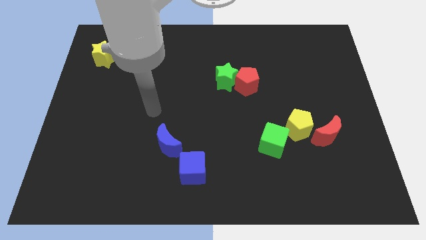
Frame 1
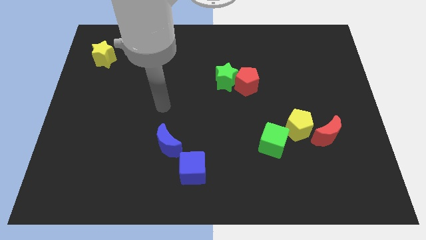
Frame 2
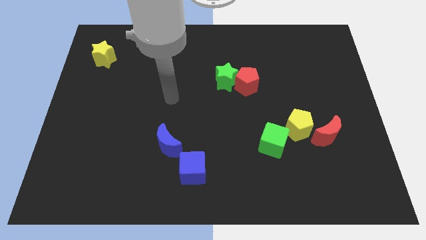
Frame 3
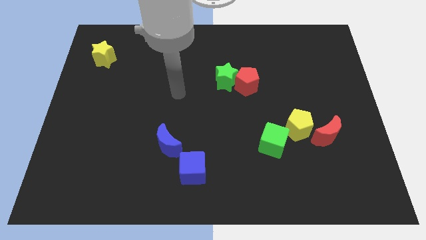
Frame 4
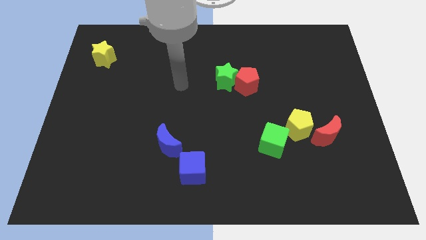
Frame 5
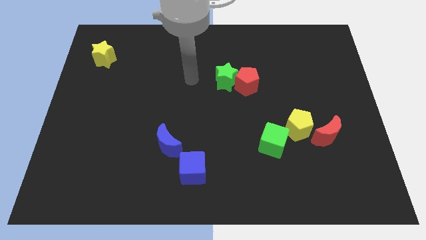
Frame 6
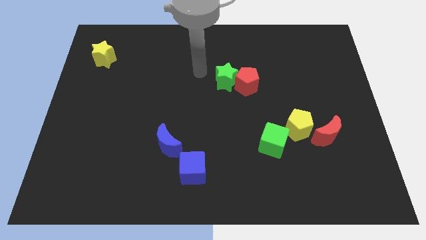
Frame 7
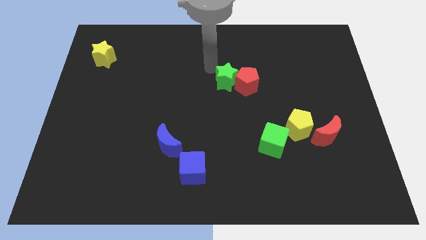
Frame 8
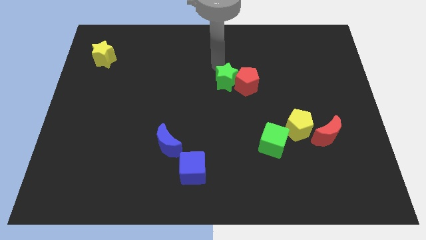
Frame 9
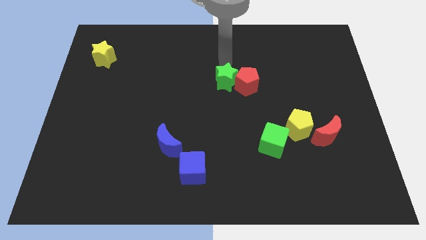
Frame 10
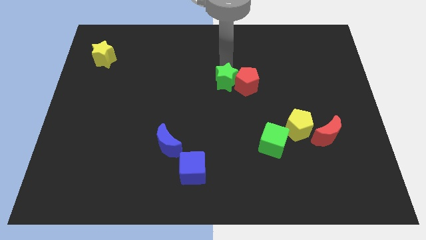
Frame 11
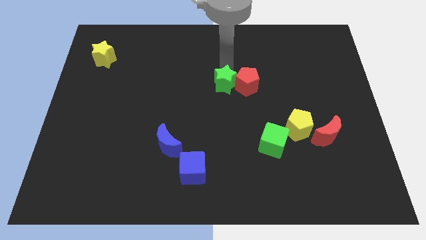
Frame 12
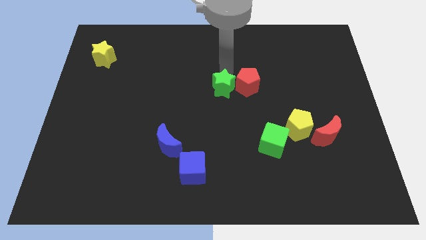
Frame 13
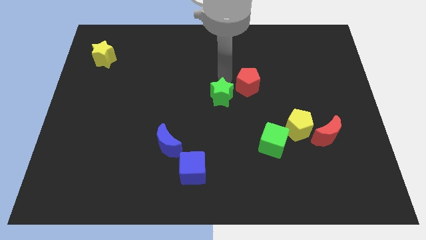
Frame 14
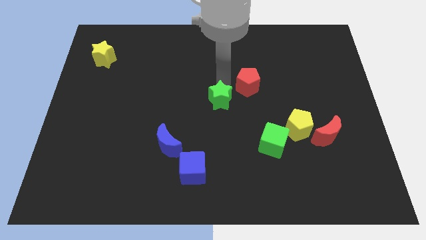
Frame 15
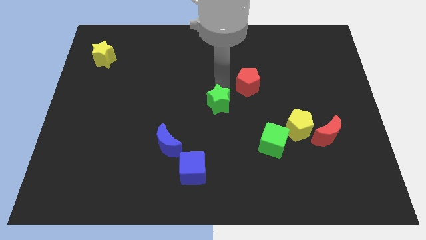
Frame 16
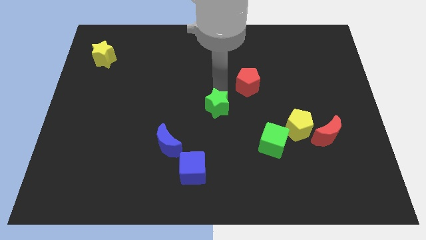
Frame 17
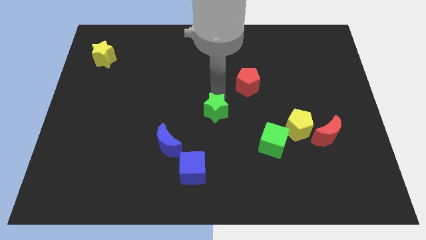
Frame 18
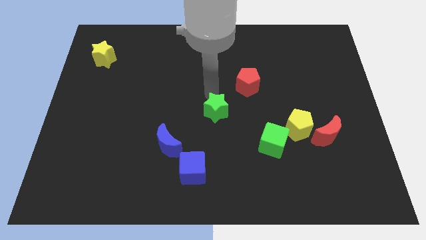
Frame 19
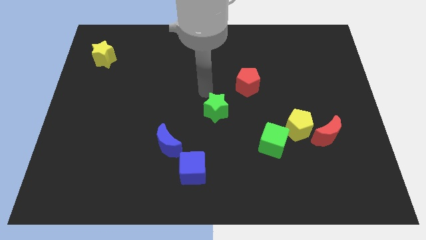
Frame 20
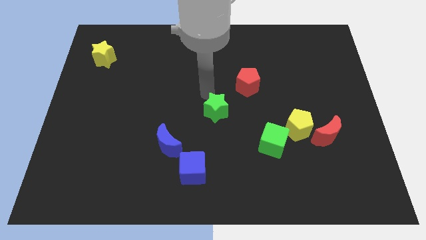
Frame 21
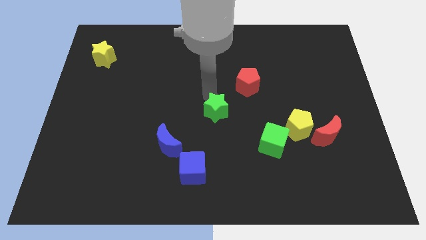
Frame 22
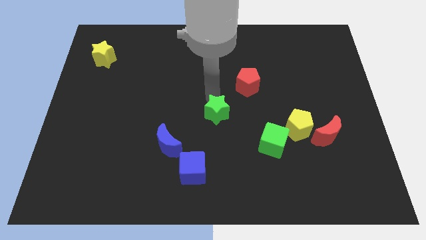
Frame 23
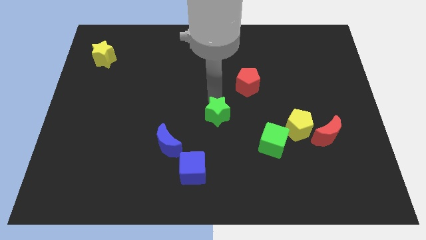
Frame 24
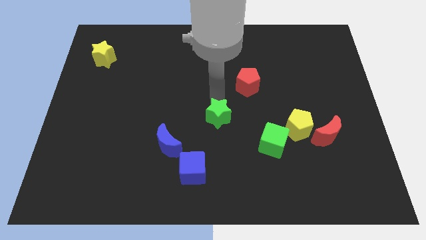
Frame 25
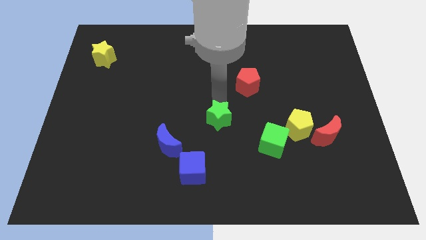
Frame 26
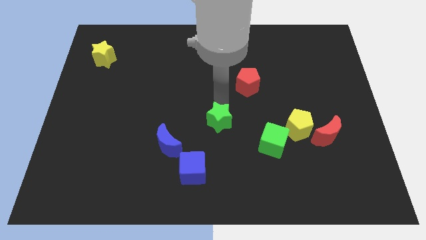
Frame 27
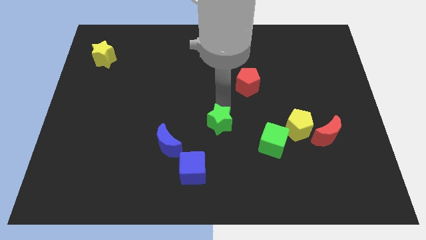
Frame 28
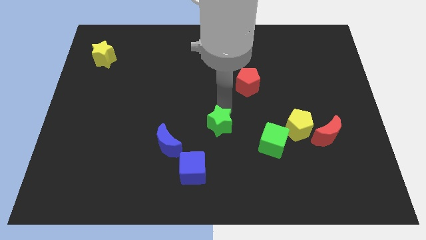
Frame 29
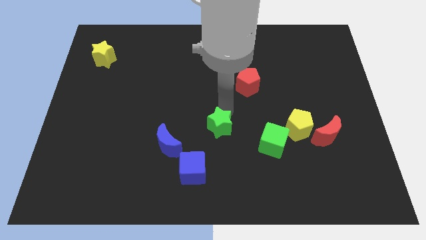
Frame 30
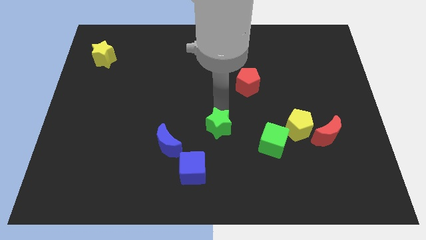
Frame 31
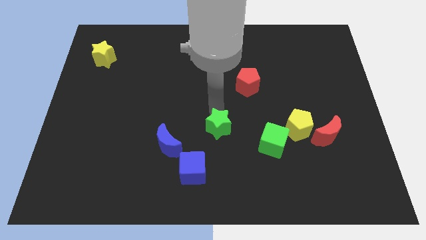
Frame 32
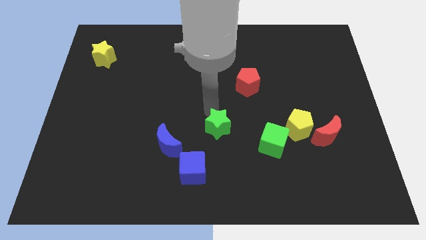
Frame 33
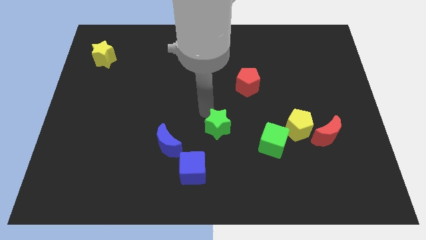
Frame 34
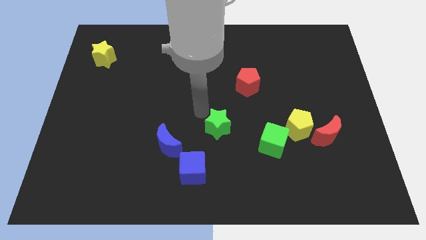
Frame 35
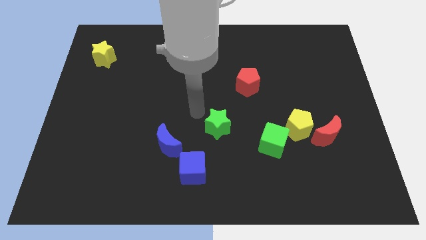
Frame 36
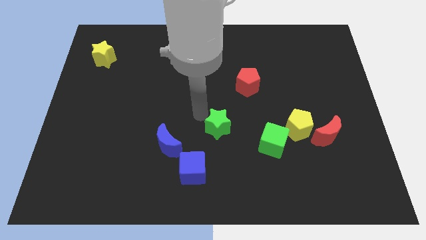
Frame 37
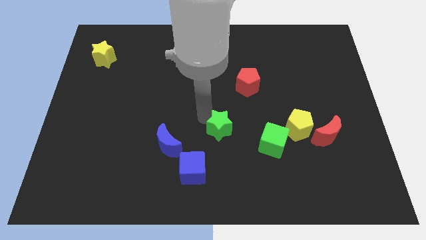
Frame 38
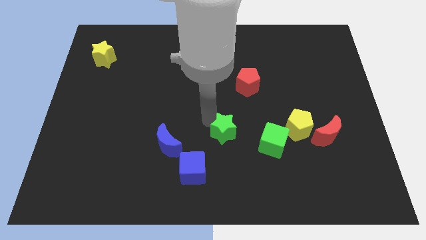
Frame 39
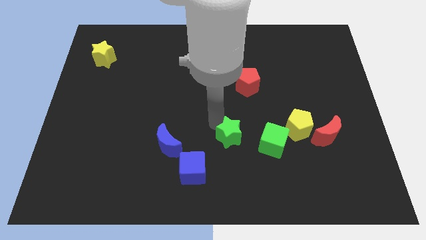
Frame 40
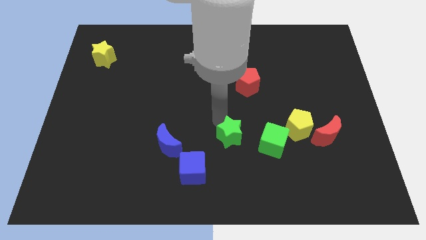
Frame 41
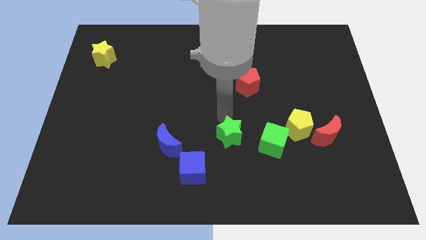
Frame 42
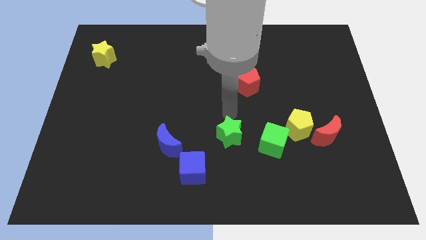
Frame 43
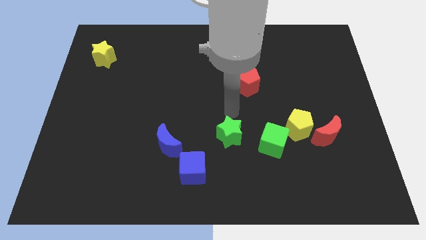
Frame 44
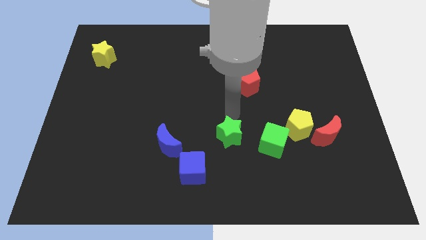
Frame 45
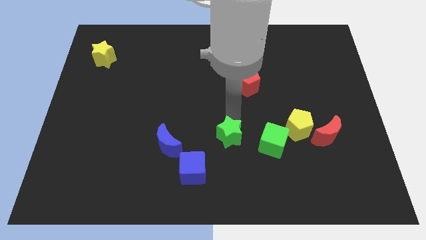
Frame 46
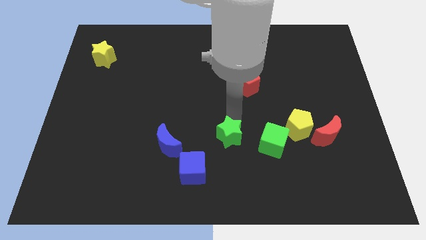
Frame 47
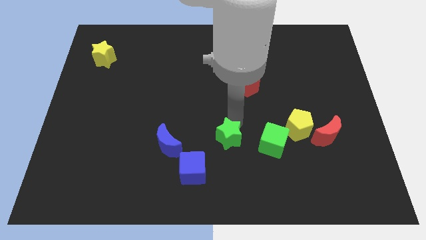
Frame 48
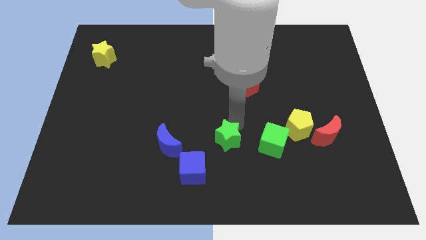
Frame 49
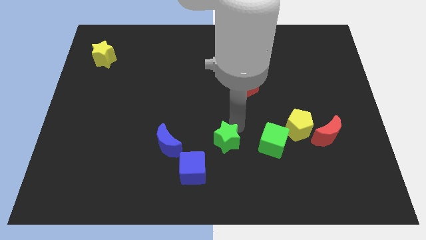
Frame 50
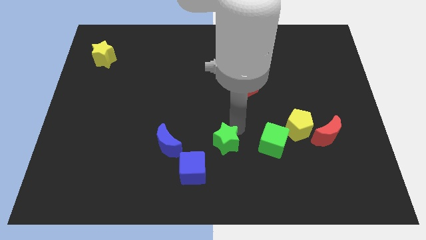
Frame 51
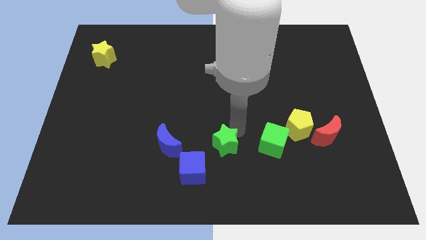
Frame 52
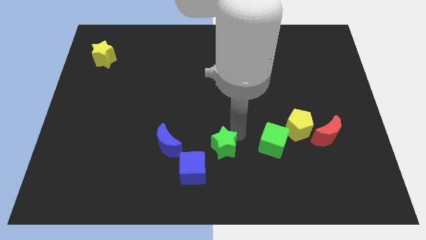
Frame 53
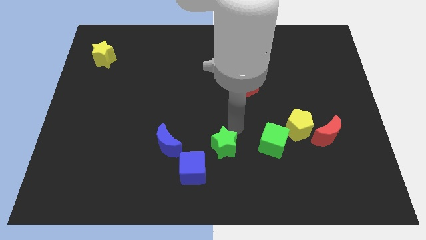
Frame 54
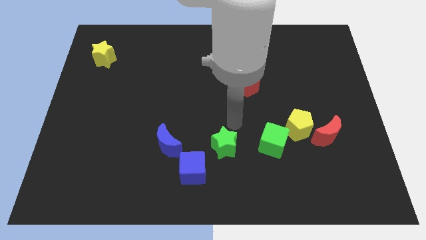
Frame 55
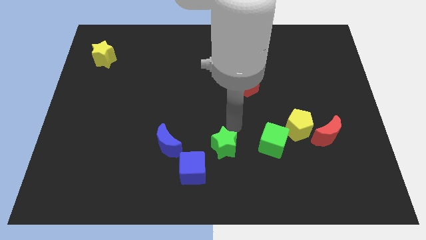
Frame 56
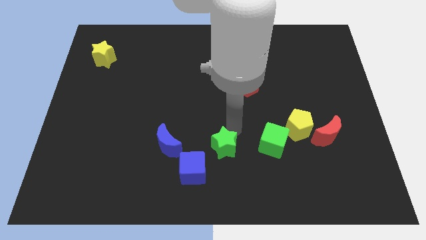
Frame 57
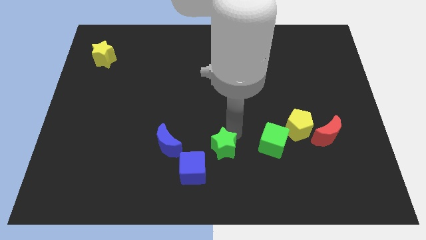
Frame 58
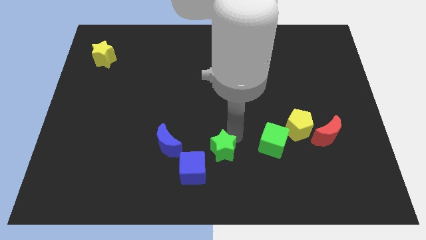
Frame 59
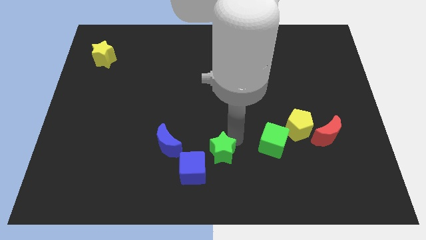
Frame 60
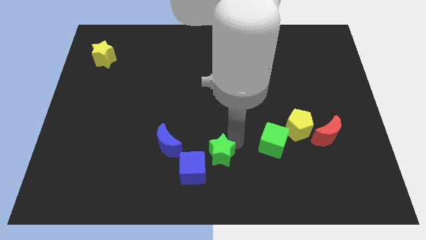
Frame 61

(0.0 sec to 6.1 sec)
put the green star to the bottom side

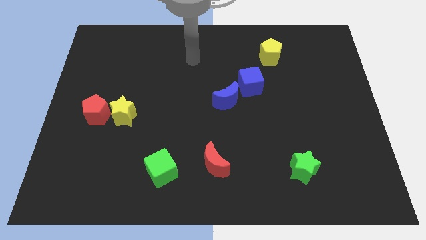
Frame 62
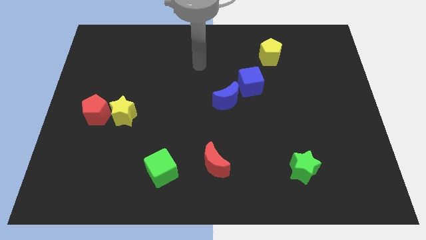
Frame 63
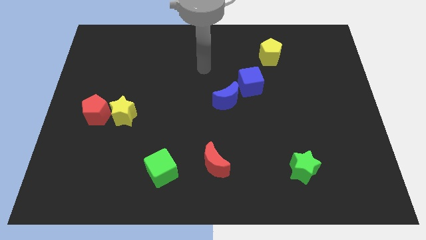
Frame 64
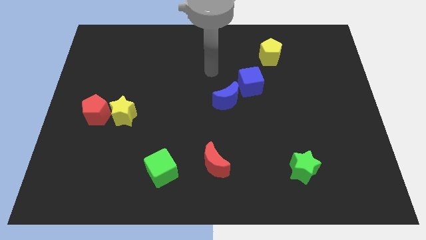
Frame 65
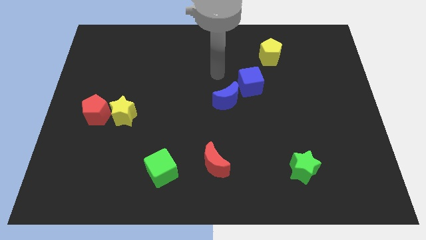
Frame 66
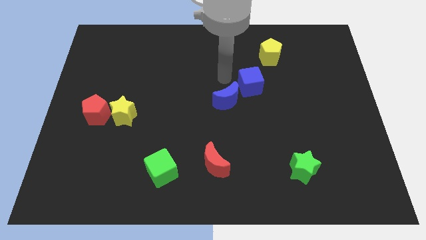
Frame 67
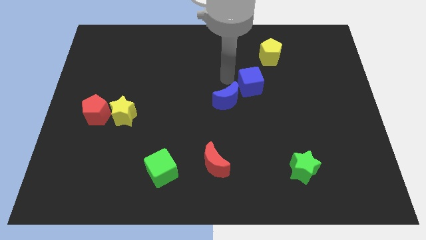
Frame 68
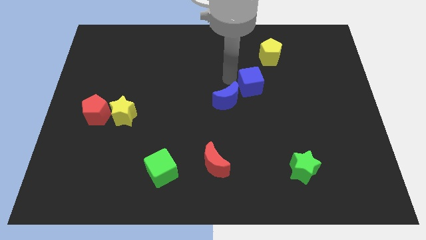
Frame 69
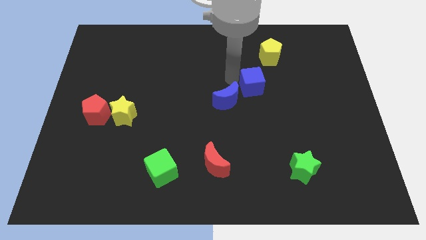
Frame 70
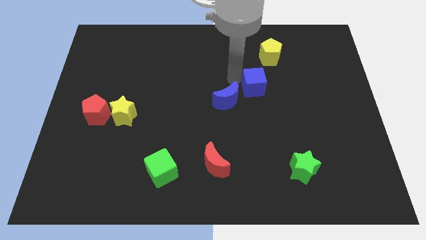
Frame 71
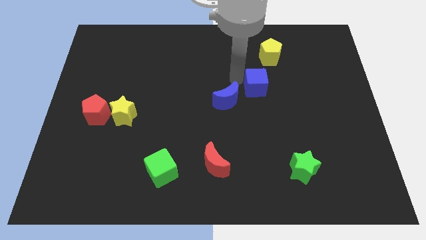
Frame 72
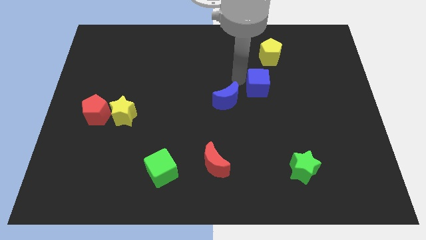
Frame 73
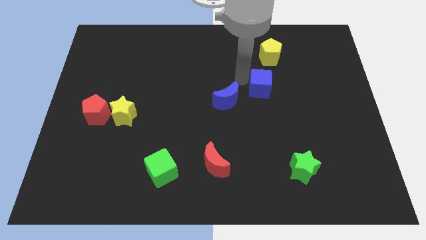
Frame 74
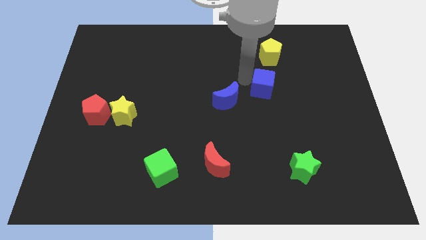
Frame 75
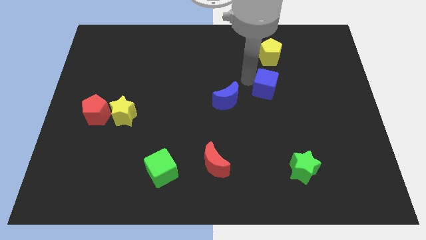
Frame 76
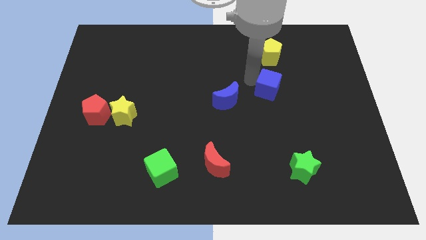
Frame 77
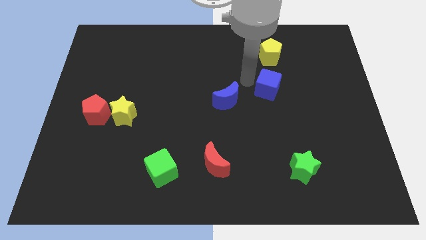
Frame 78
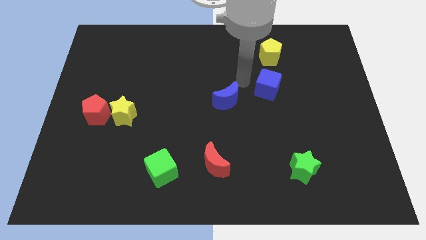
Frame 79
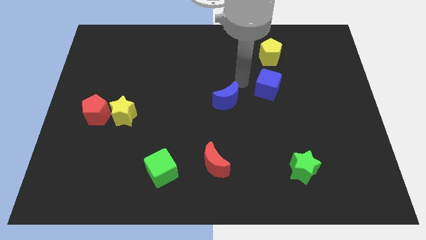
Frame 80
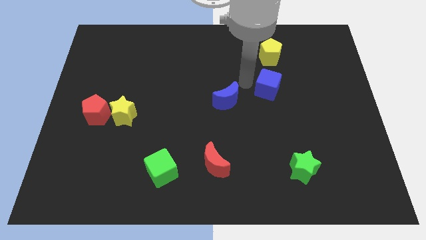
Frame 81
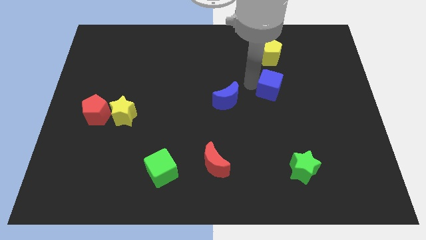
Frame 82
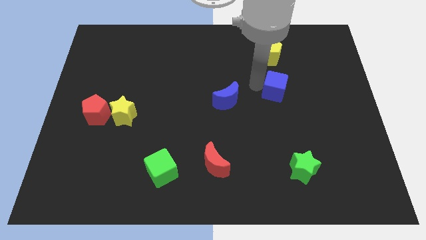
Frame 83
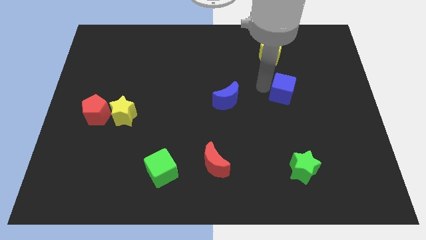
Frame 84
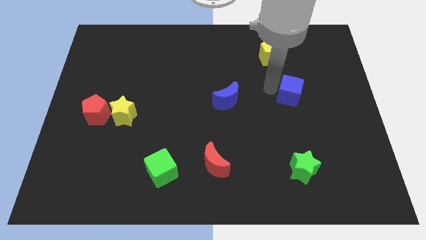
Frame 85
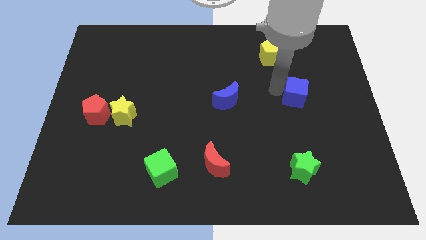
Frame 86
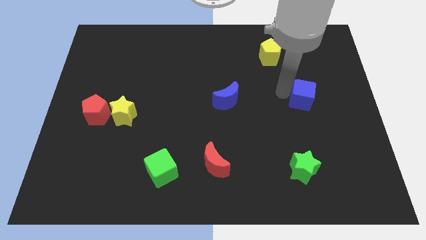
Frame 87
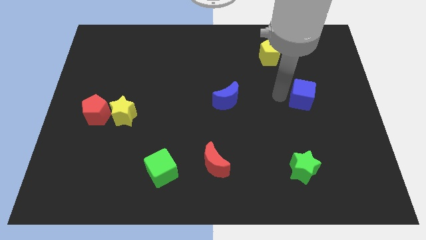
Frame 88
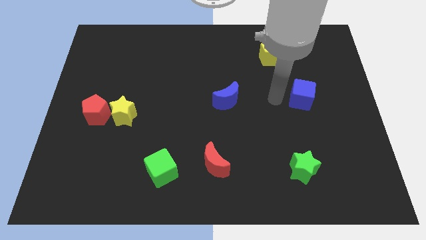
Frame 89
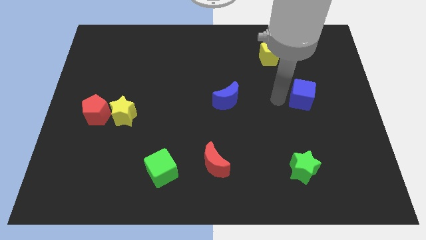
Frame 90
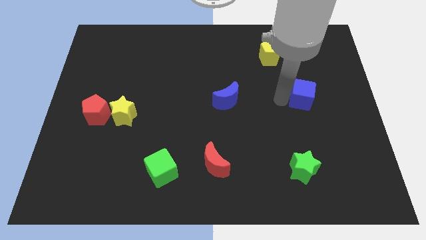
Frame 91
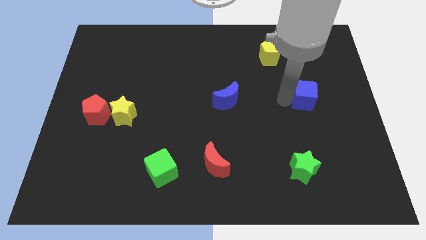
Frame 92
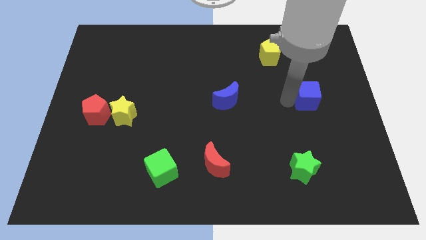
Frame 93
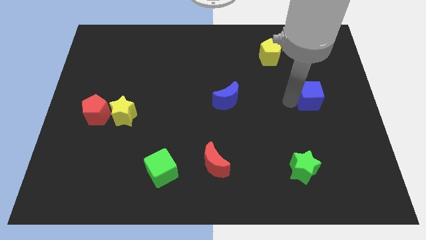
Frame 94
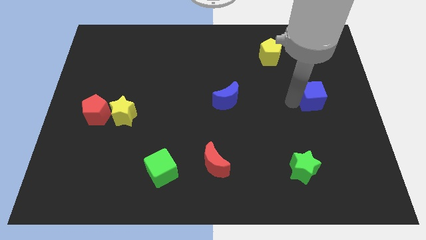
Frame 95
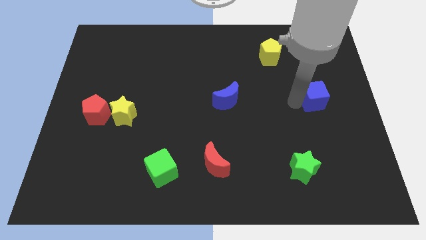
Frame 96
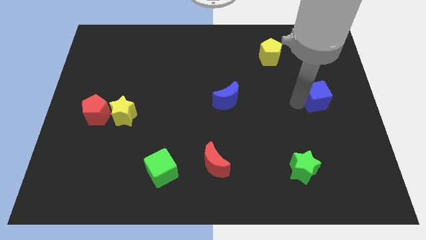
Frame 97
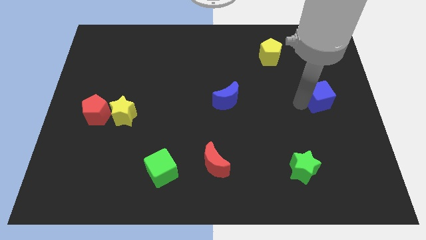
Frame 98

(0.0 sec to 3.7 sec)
slide the blue cube to the right side of the board
